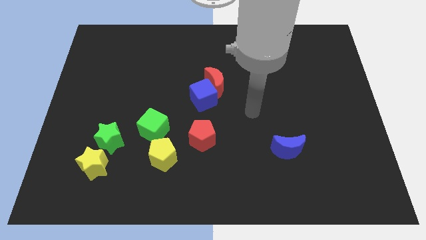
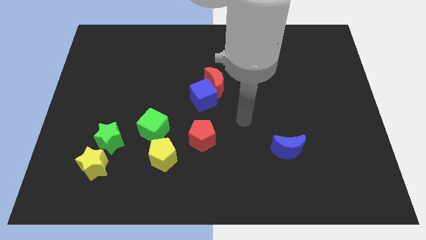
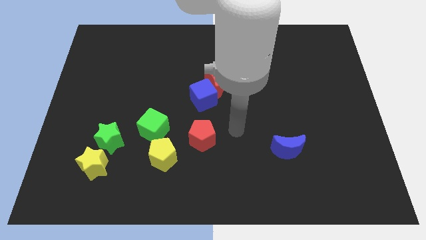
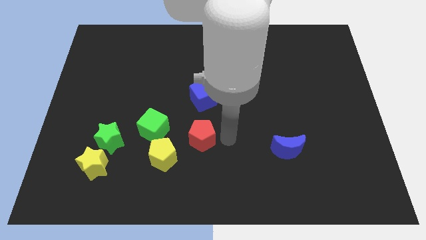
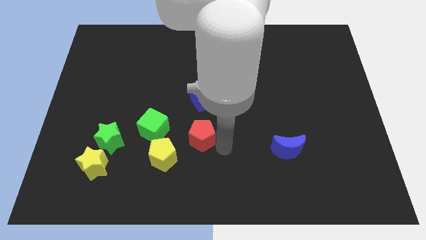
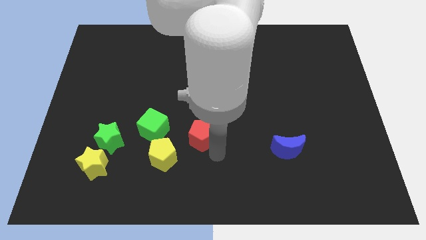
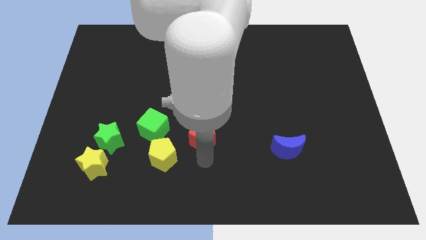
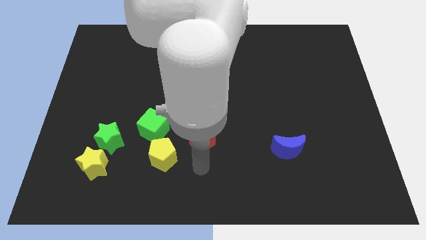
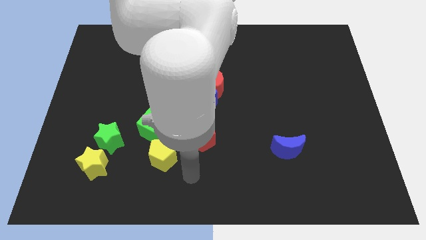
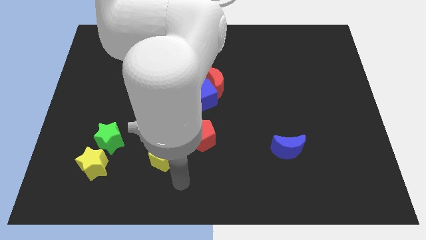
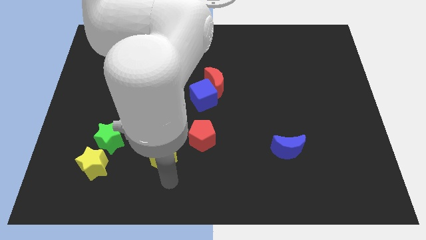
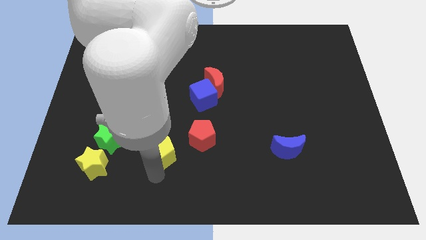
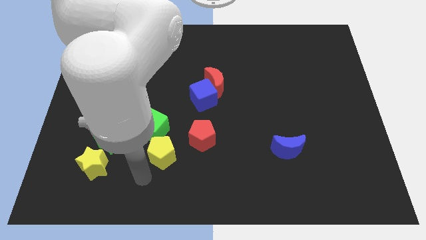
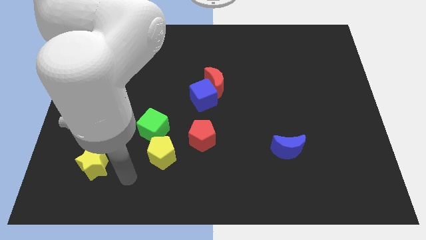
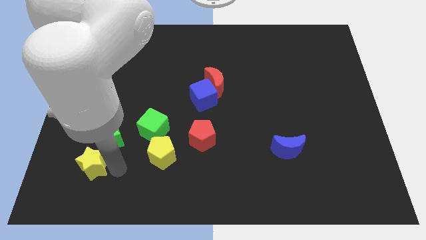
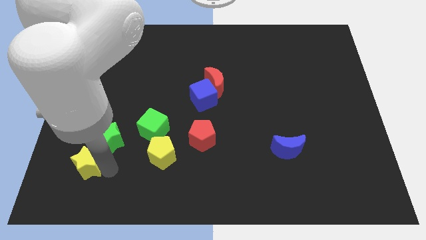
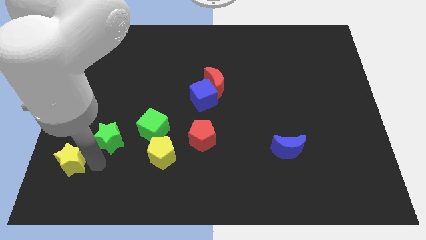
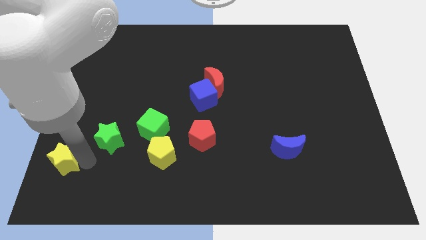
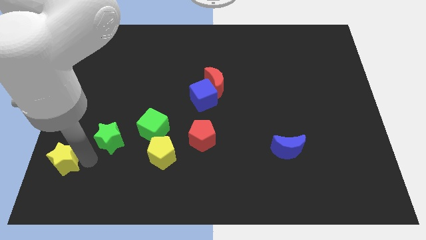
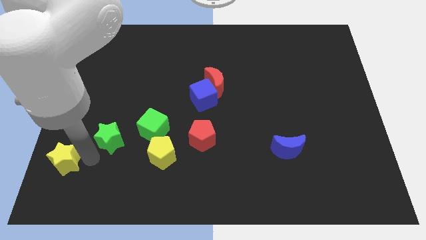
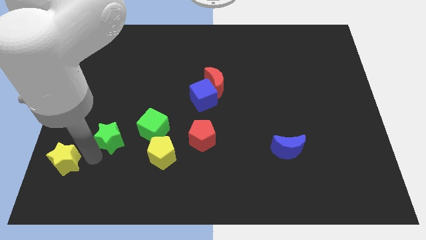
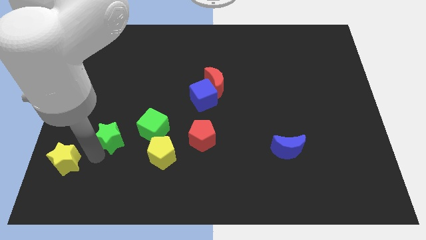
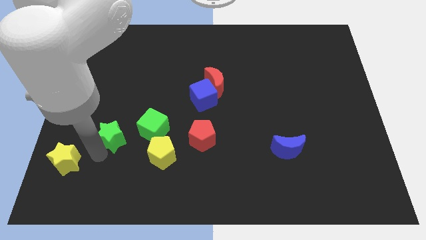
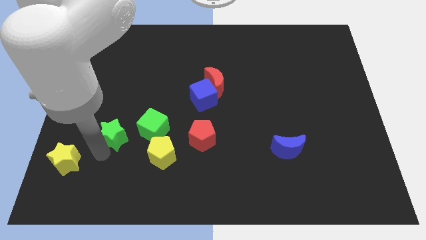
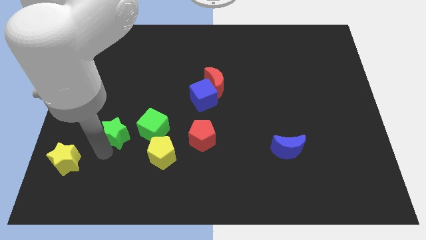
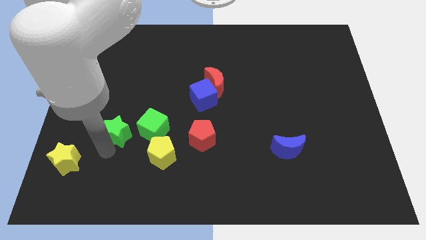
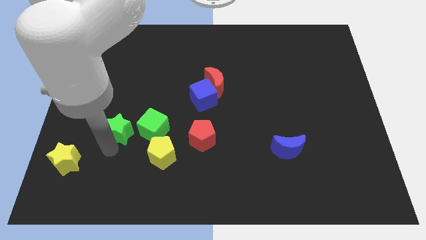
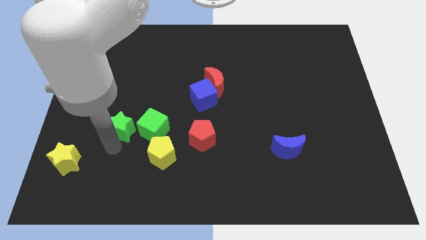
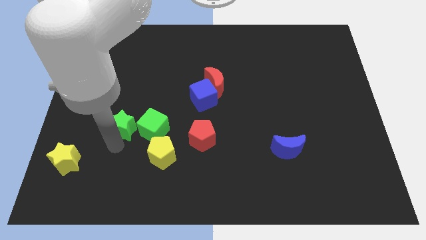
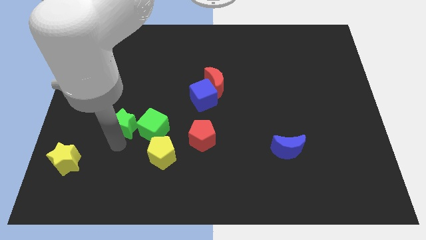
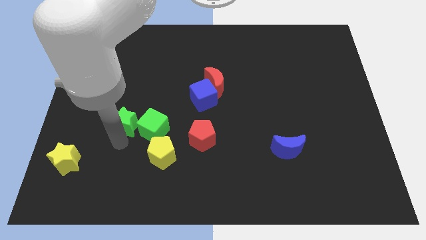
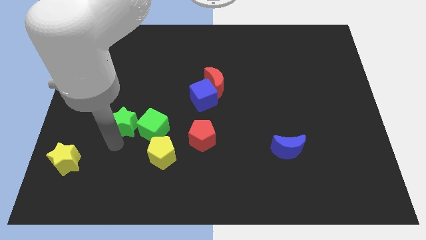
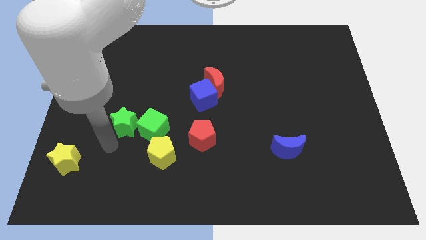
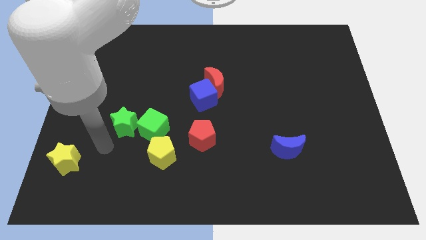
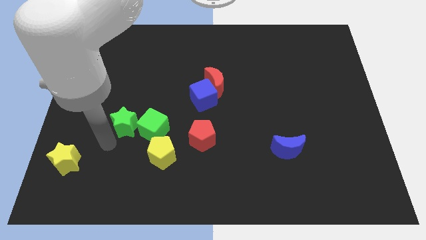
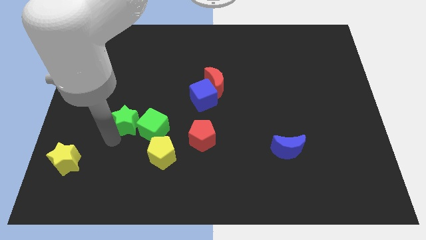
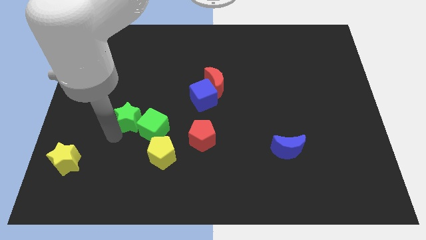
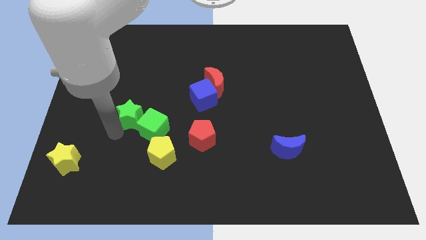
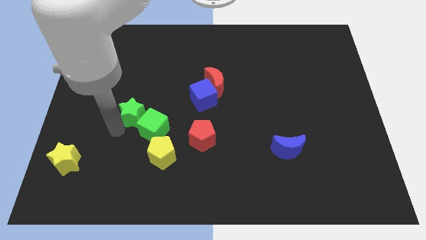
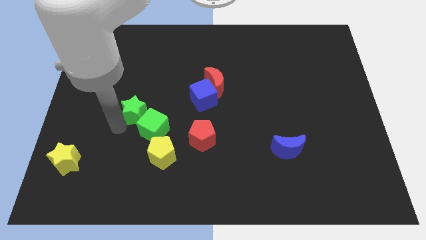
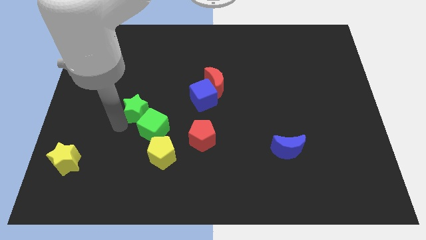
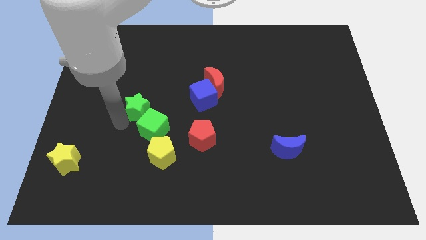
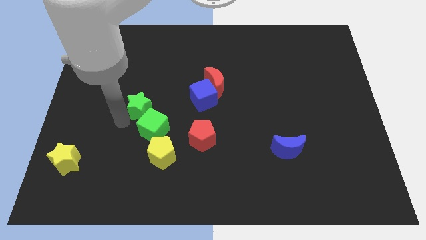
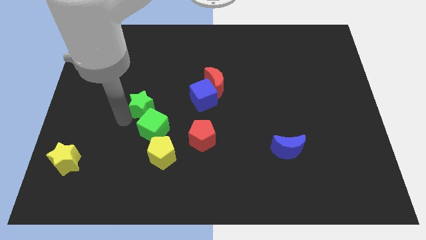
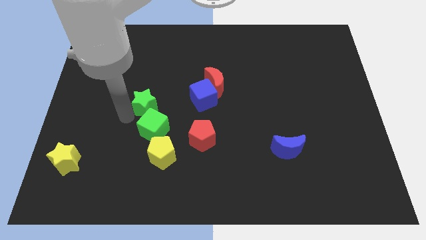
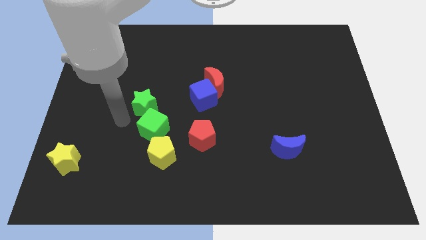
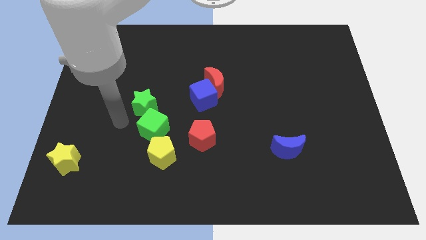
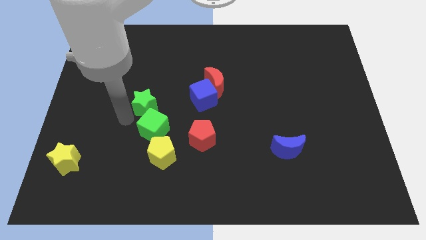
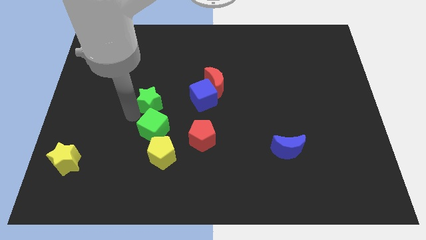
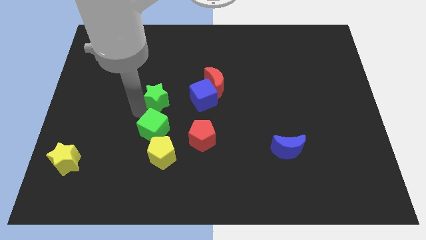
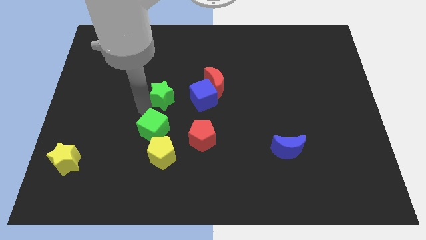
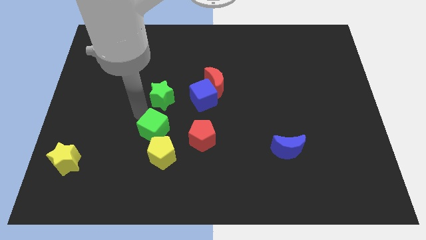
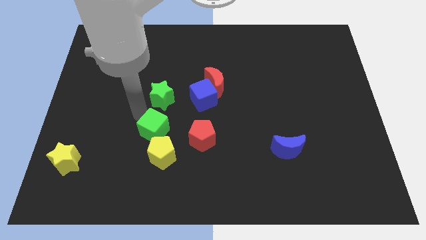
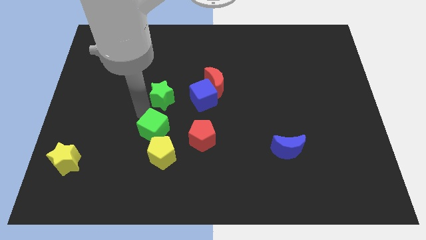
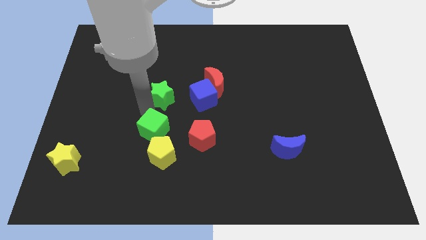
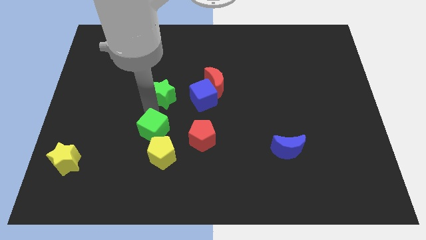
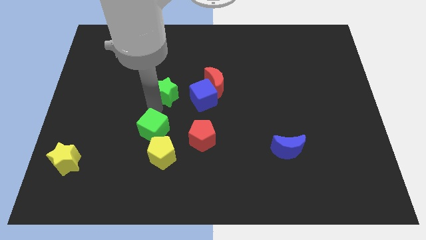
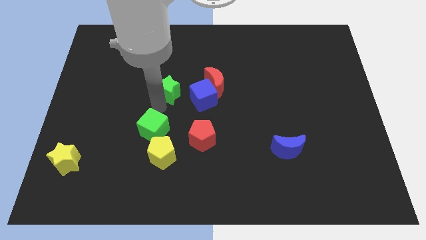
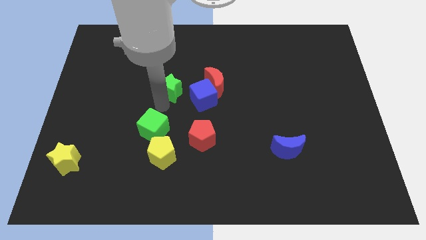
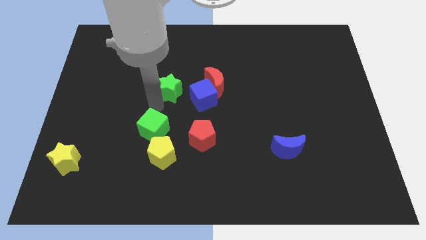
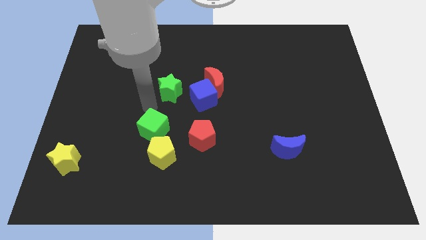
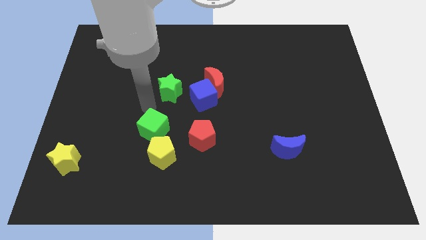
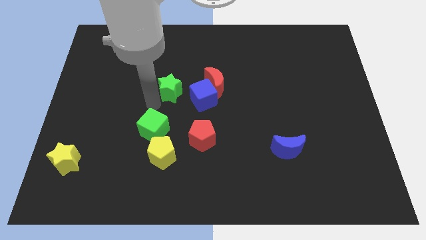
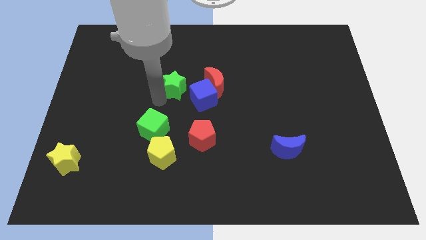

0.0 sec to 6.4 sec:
move the green star diagonally up and to the right

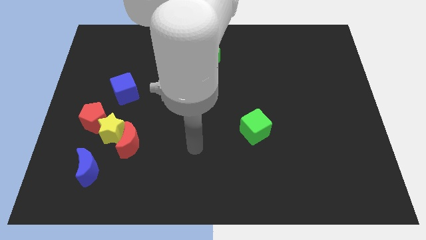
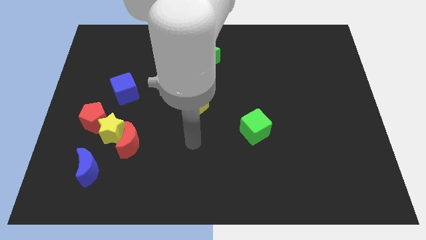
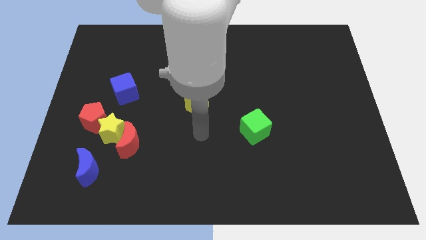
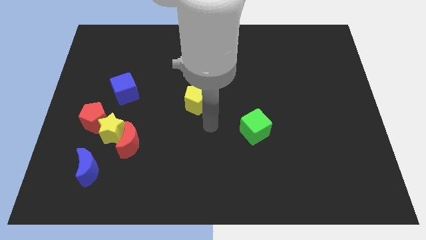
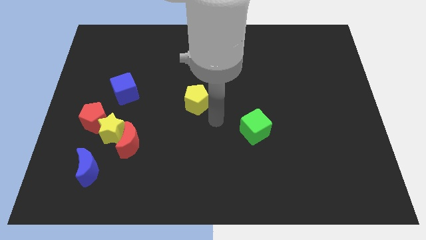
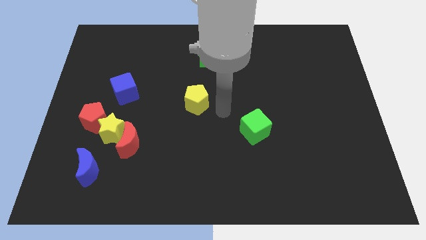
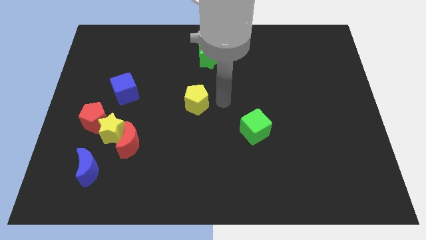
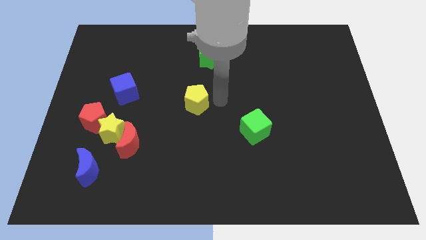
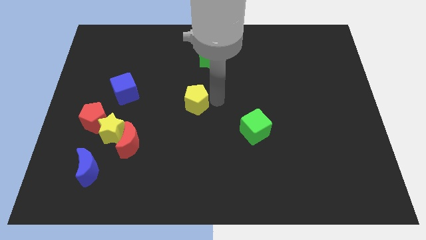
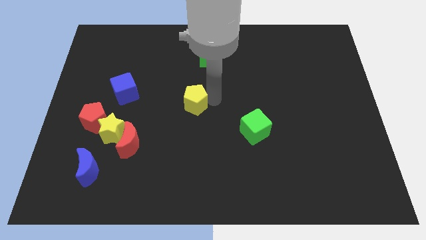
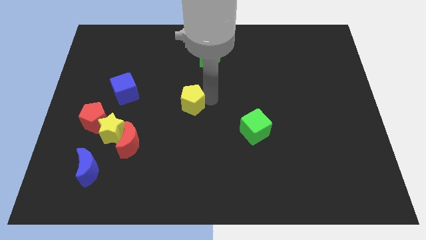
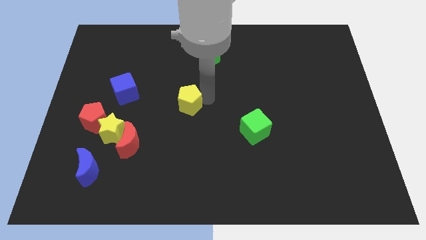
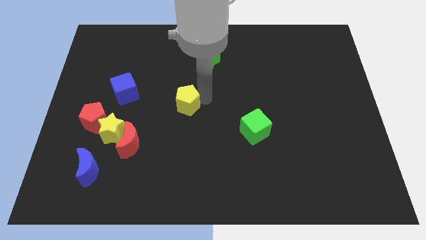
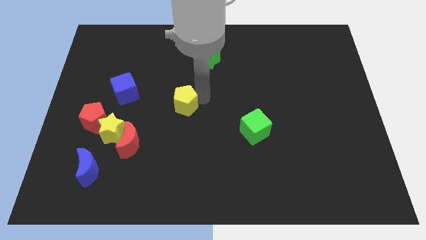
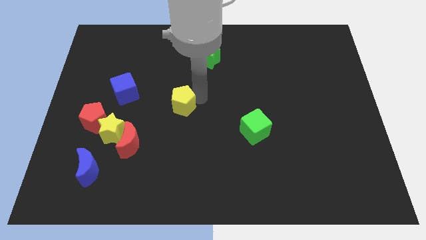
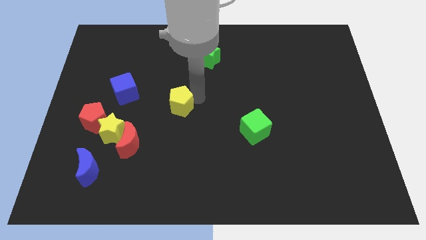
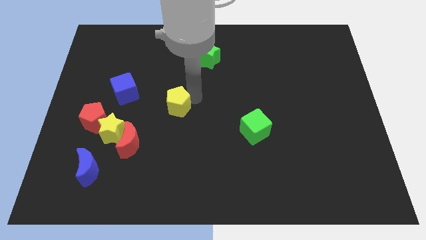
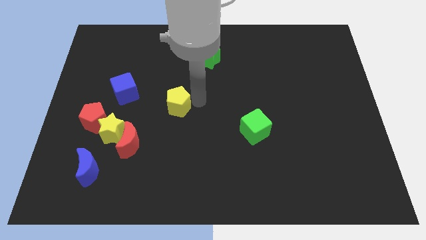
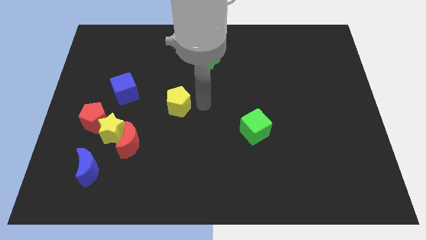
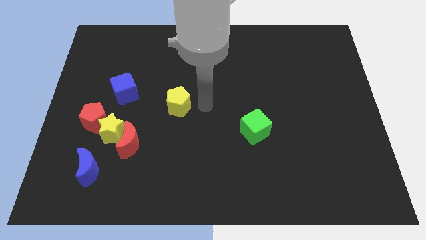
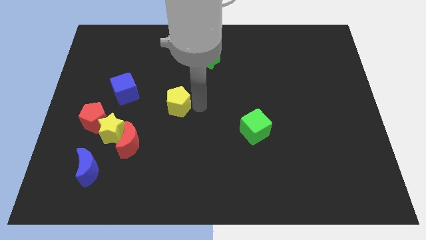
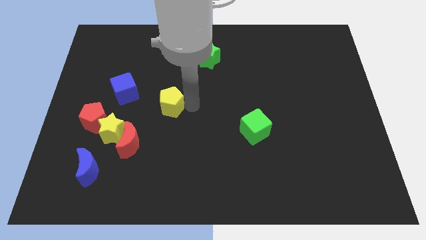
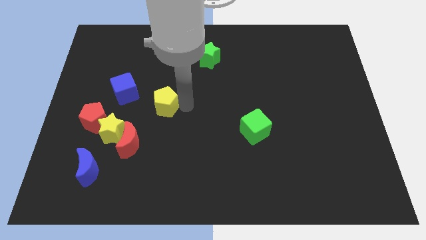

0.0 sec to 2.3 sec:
slide the yellow pentagon left slightly
